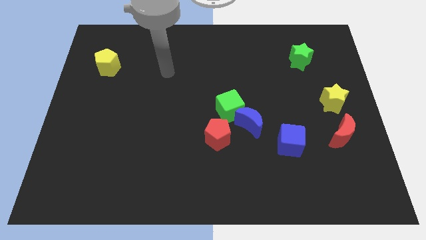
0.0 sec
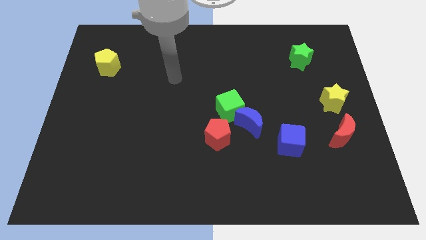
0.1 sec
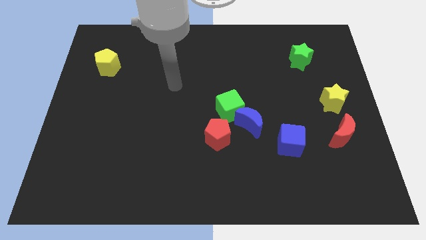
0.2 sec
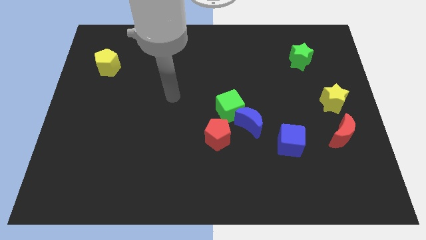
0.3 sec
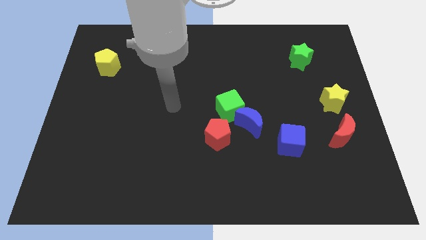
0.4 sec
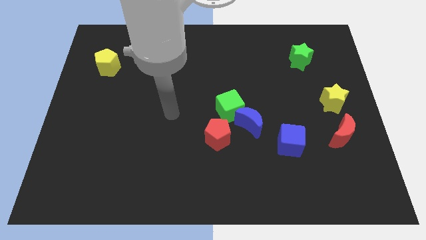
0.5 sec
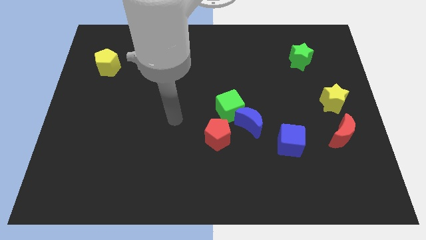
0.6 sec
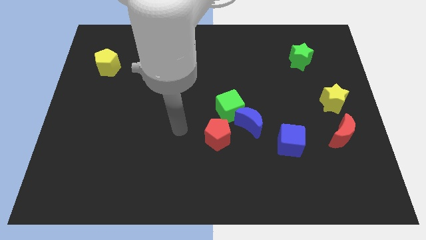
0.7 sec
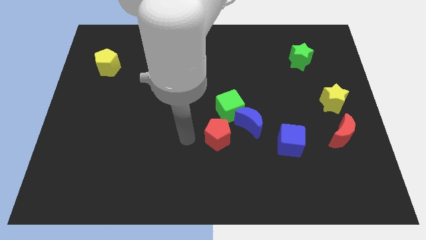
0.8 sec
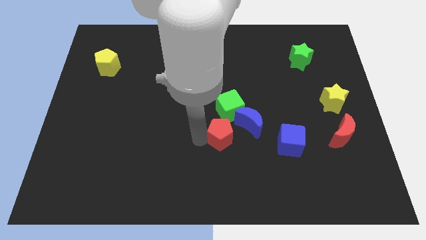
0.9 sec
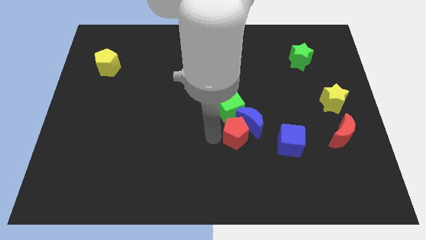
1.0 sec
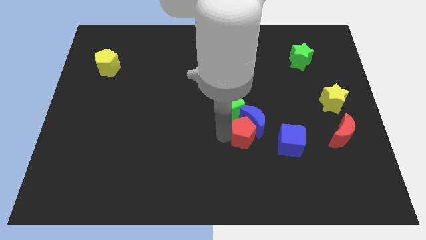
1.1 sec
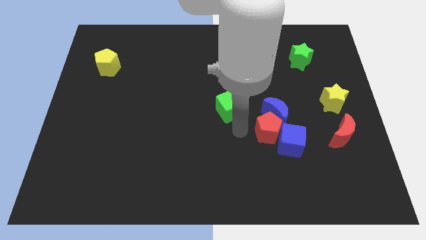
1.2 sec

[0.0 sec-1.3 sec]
move the green cube away from the blue moon and red pentagon

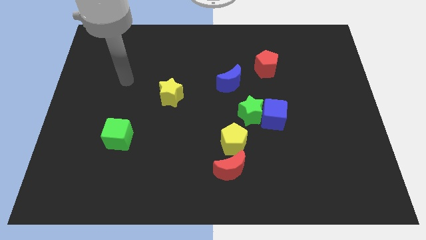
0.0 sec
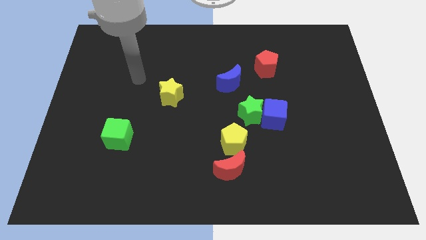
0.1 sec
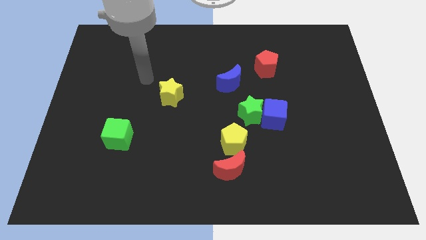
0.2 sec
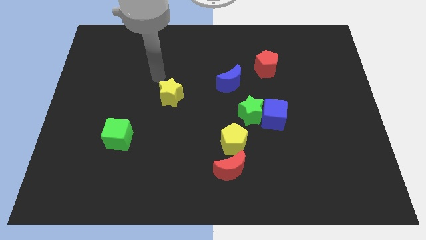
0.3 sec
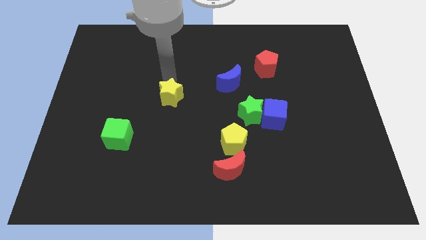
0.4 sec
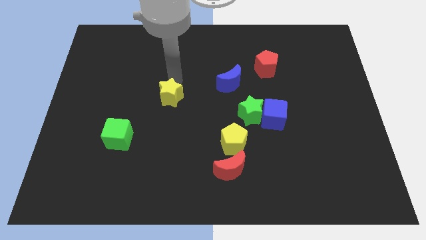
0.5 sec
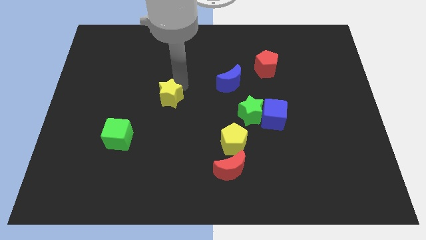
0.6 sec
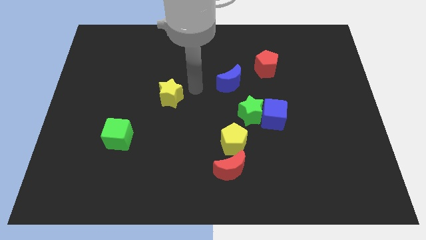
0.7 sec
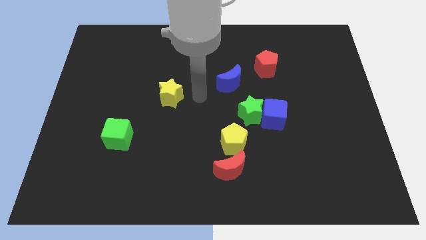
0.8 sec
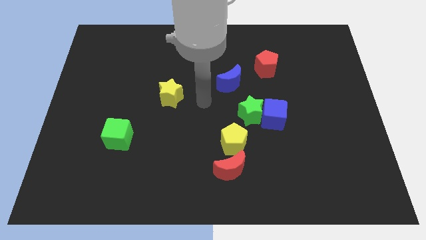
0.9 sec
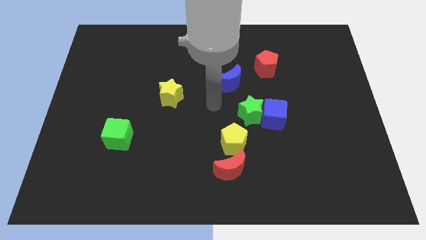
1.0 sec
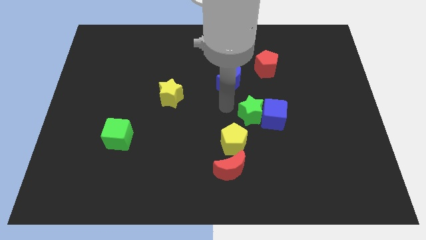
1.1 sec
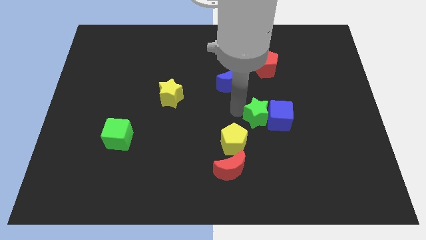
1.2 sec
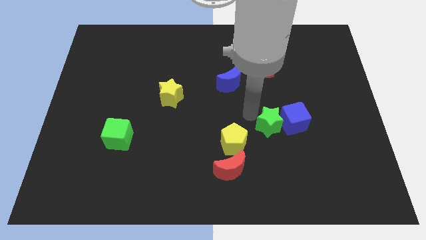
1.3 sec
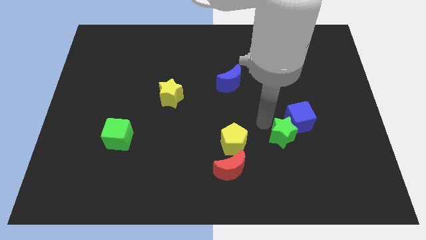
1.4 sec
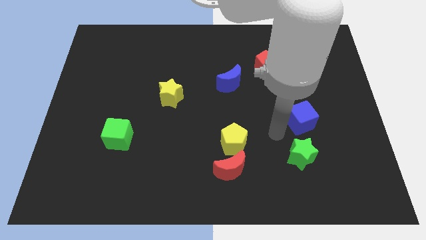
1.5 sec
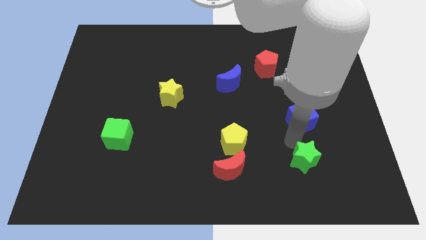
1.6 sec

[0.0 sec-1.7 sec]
separate the blue cube from the green star

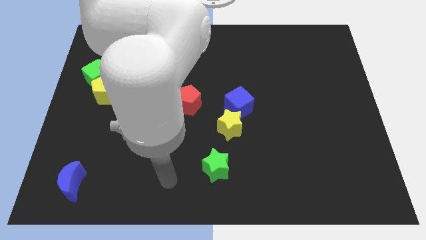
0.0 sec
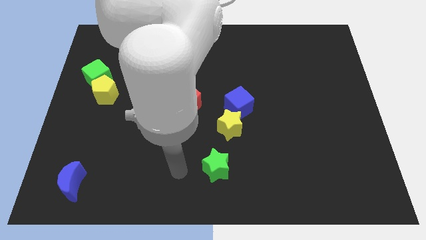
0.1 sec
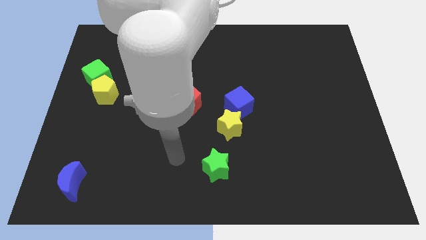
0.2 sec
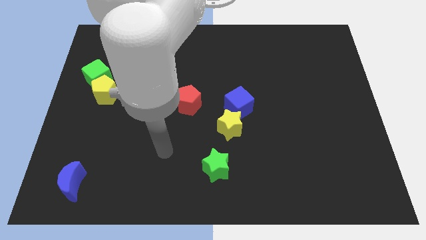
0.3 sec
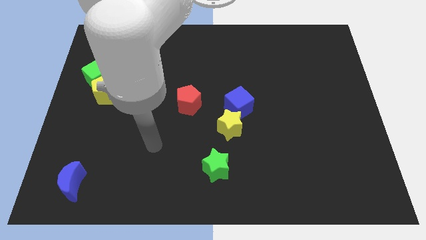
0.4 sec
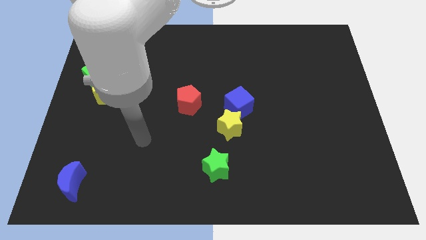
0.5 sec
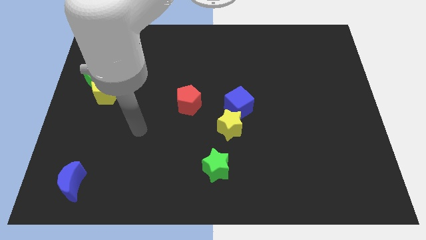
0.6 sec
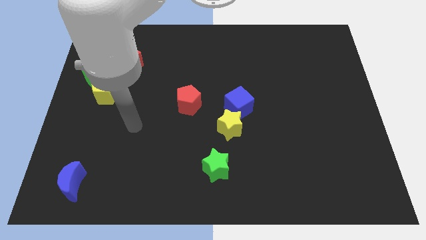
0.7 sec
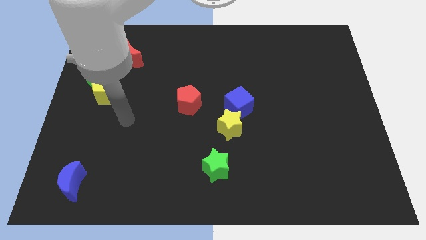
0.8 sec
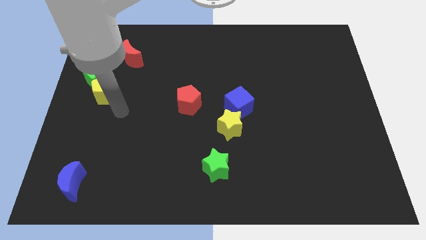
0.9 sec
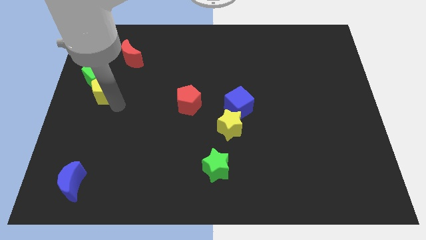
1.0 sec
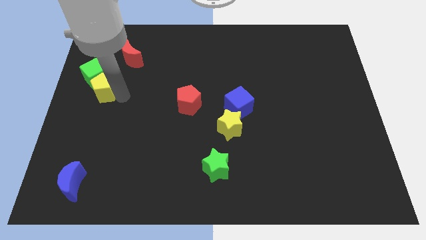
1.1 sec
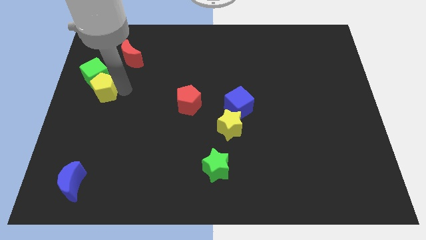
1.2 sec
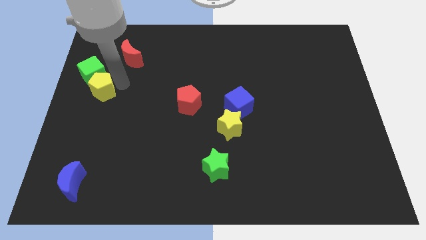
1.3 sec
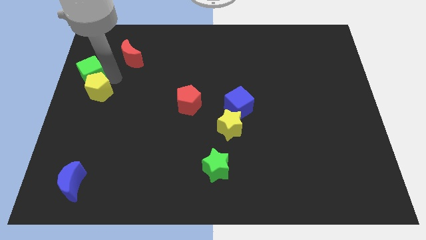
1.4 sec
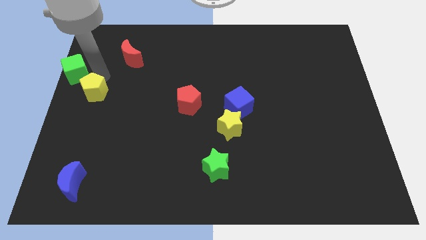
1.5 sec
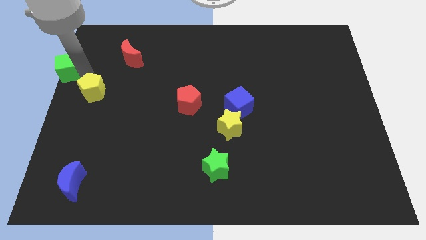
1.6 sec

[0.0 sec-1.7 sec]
pull the yellow pentagon apart from the green cube

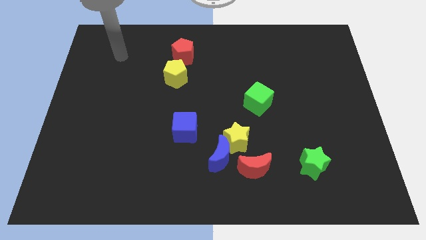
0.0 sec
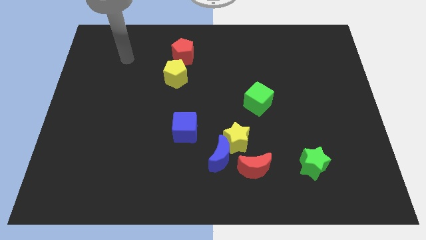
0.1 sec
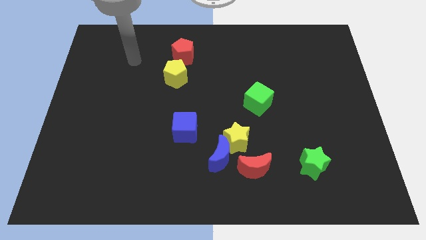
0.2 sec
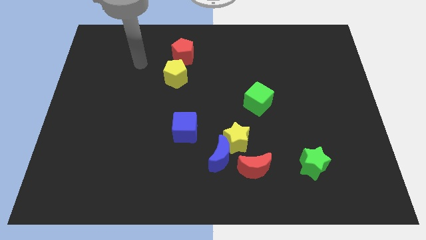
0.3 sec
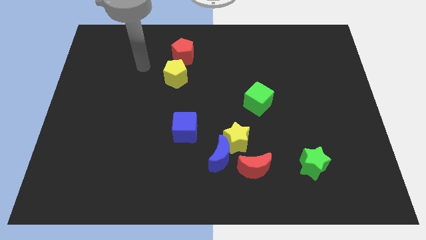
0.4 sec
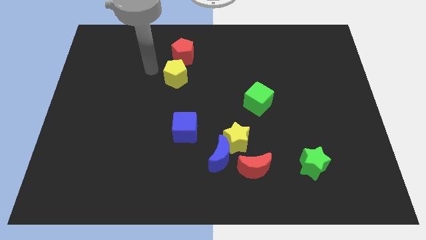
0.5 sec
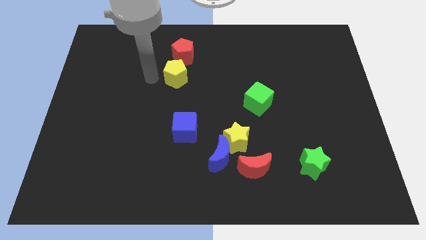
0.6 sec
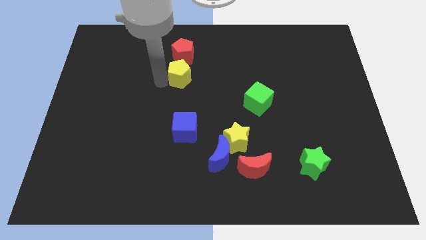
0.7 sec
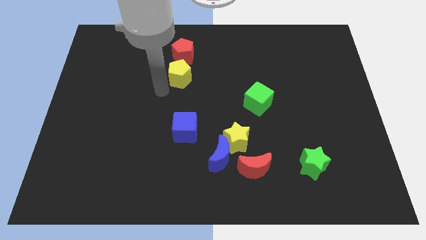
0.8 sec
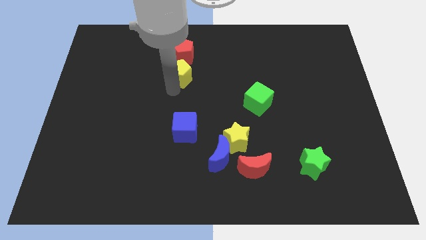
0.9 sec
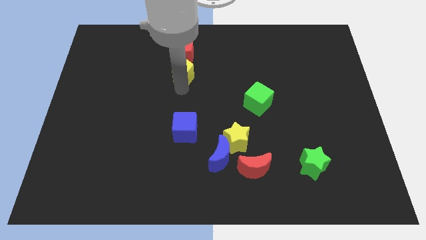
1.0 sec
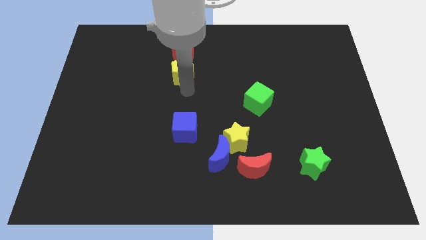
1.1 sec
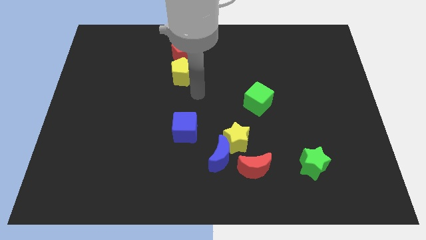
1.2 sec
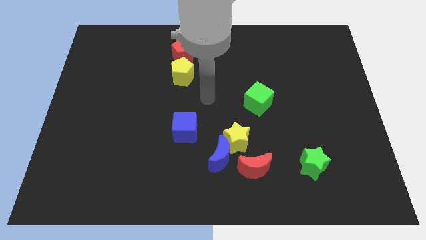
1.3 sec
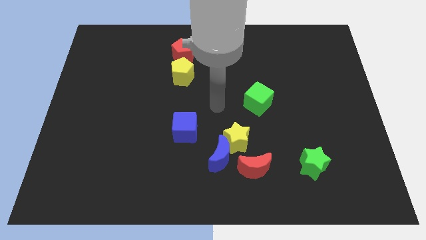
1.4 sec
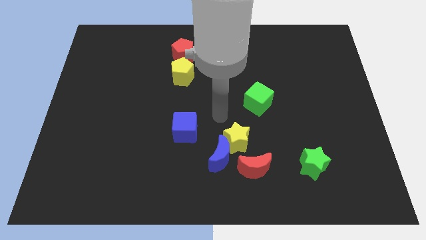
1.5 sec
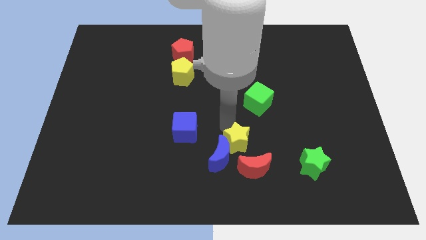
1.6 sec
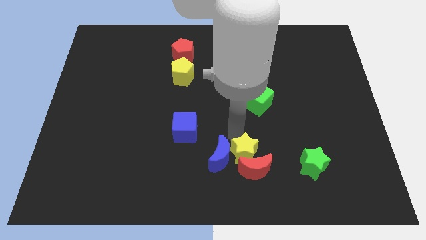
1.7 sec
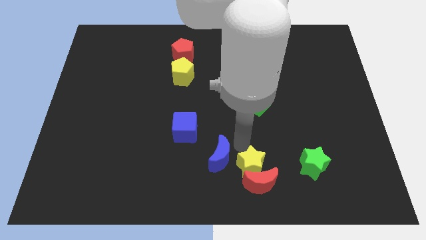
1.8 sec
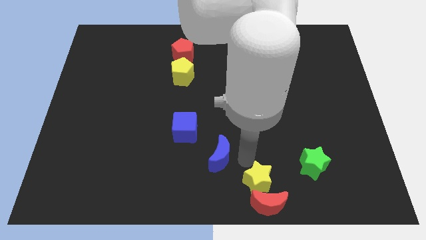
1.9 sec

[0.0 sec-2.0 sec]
move the blue moon away from the yellow star and red moon

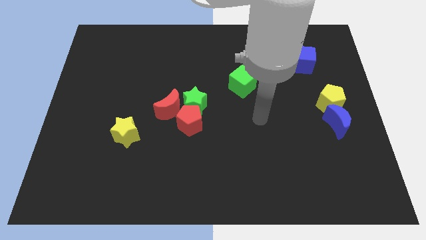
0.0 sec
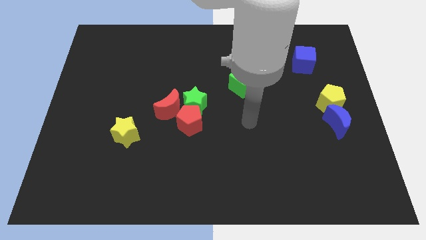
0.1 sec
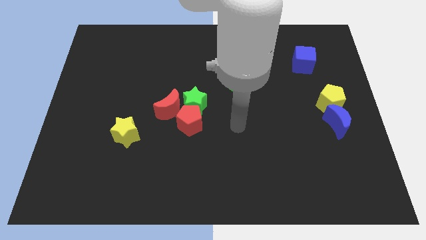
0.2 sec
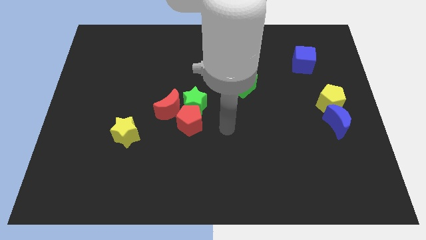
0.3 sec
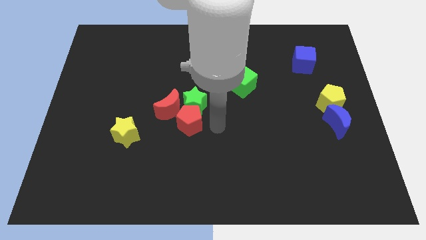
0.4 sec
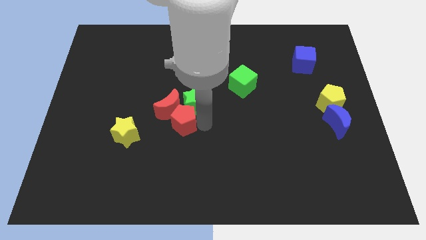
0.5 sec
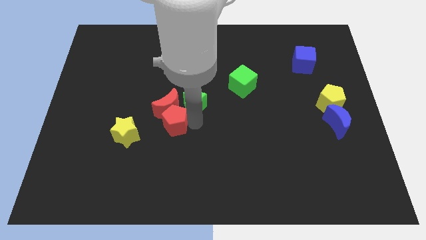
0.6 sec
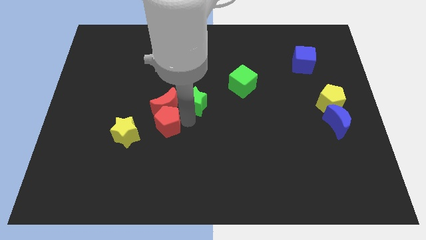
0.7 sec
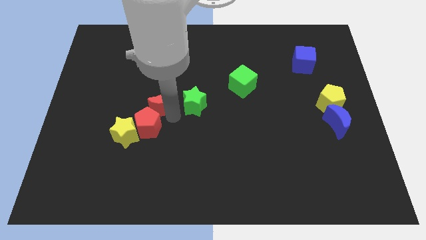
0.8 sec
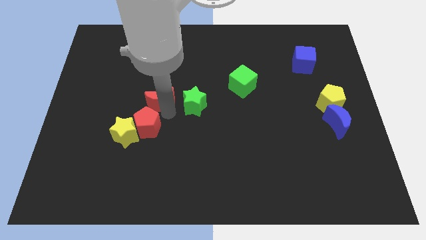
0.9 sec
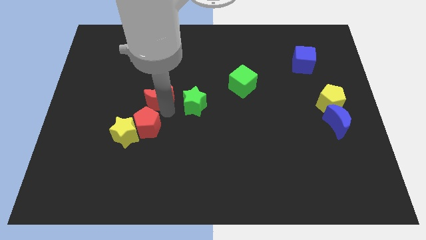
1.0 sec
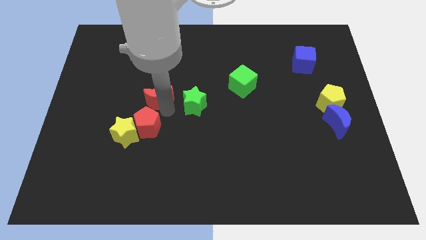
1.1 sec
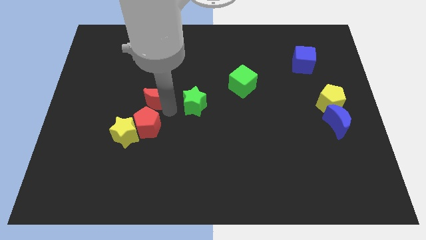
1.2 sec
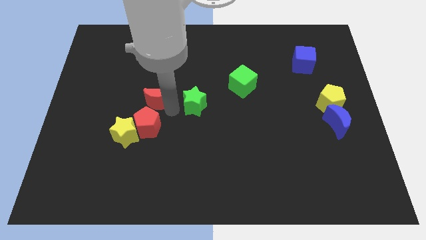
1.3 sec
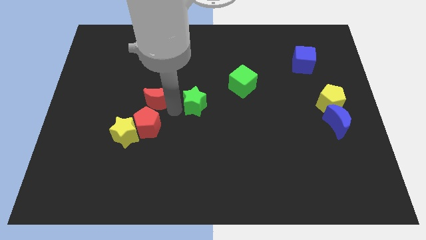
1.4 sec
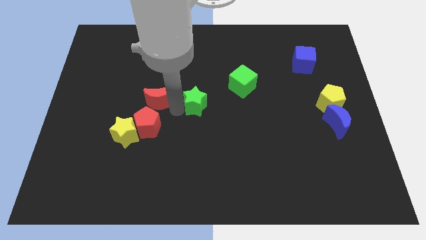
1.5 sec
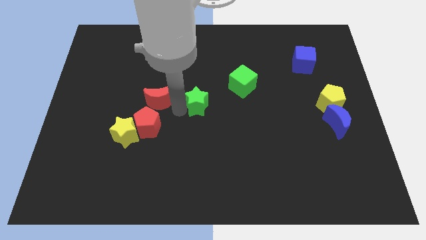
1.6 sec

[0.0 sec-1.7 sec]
separate the green star from the red pentagon and red moon

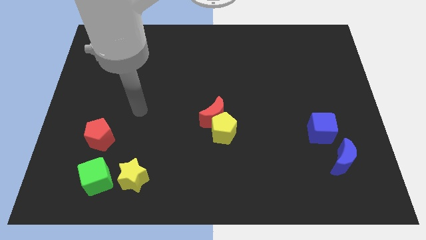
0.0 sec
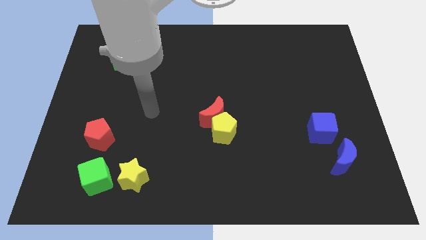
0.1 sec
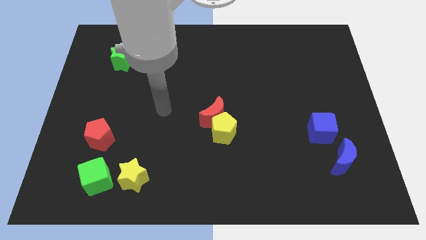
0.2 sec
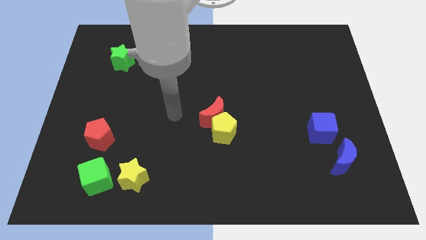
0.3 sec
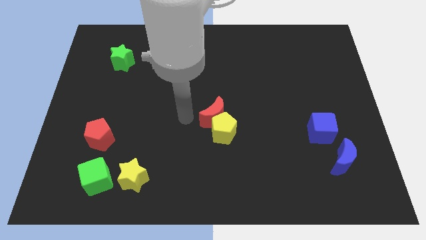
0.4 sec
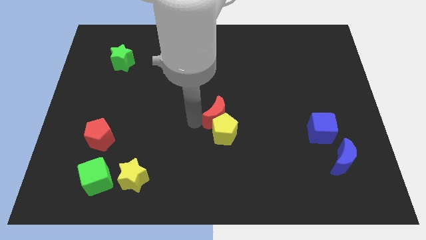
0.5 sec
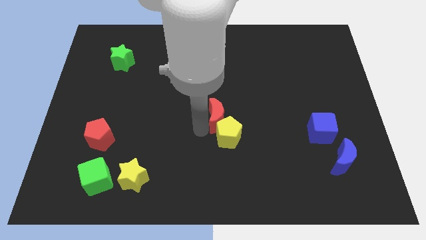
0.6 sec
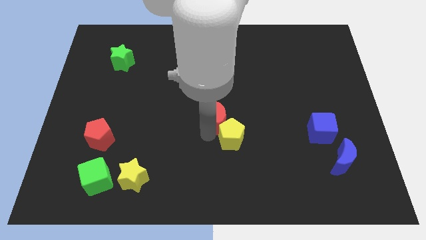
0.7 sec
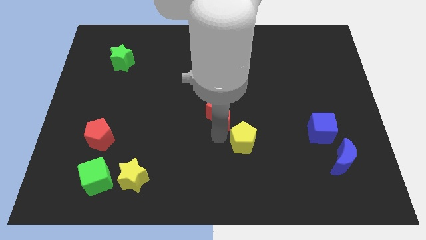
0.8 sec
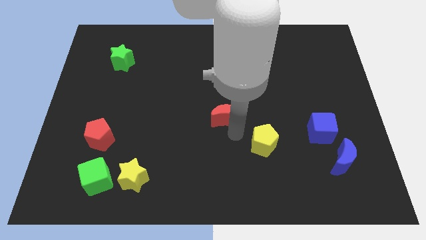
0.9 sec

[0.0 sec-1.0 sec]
separate the red moon from the yellow pentagon

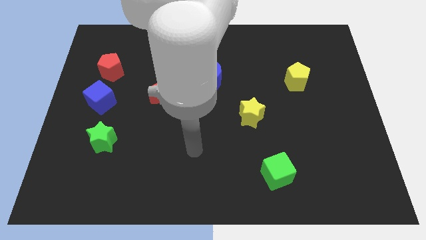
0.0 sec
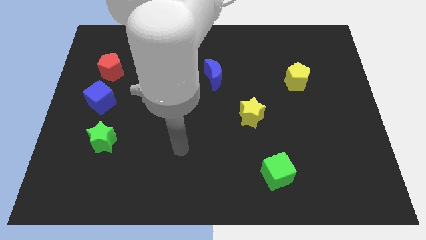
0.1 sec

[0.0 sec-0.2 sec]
separate the red pentagon from the blue cube
